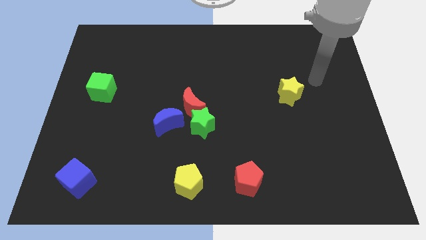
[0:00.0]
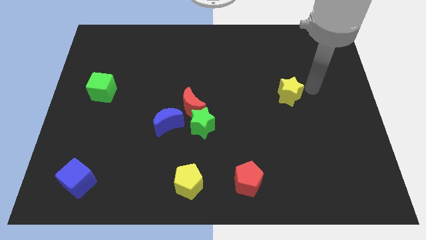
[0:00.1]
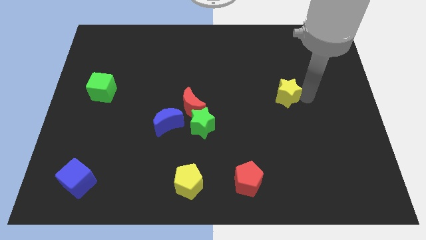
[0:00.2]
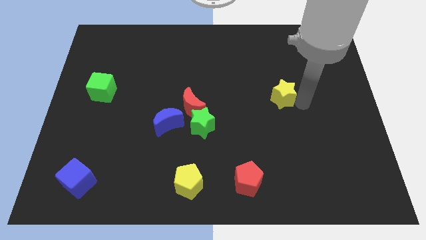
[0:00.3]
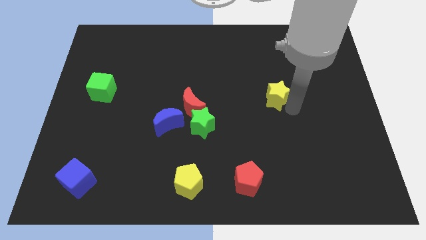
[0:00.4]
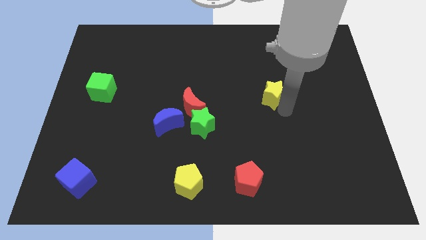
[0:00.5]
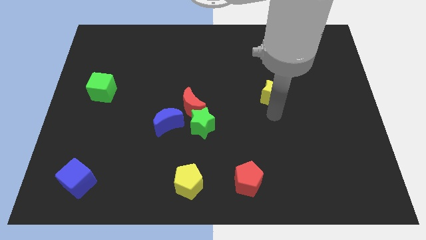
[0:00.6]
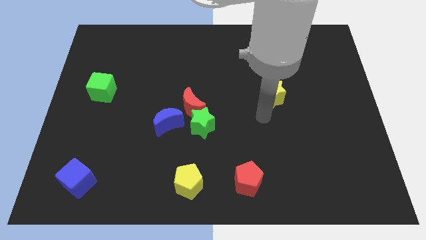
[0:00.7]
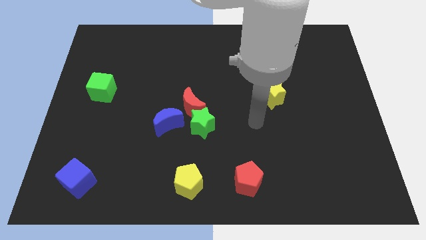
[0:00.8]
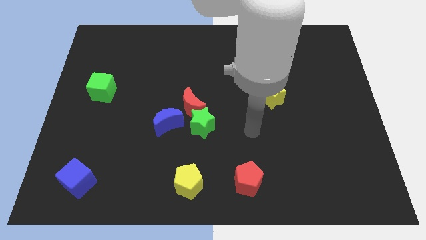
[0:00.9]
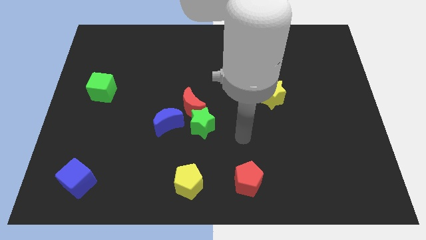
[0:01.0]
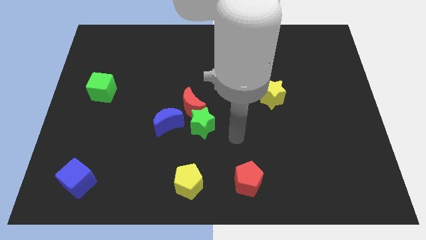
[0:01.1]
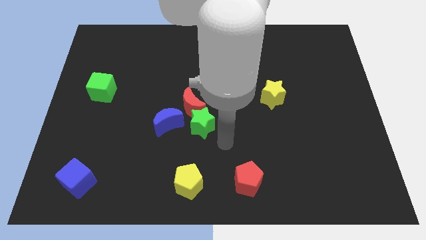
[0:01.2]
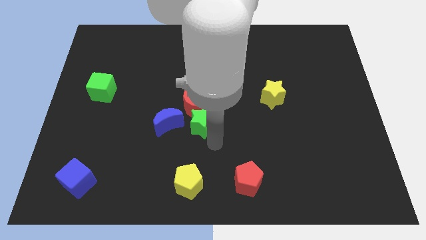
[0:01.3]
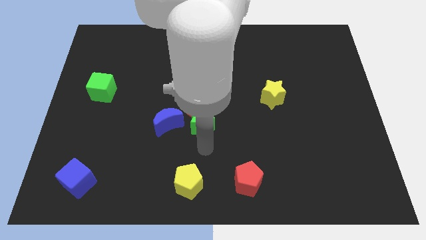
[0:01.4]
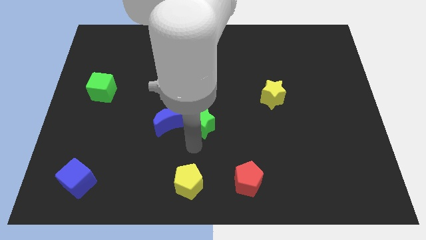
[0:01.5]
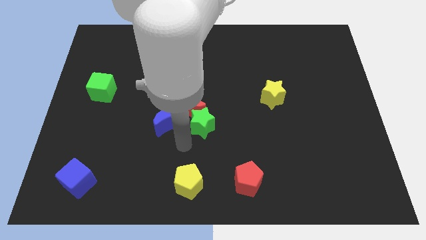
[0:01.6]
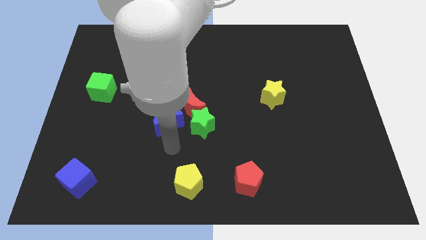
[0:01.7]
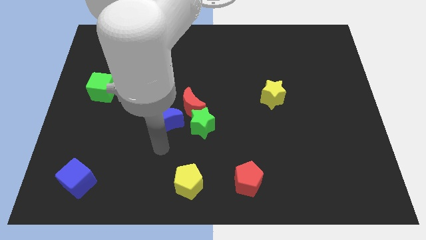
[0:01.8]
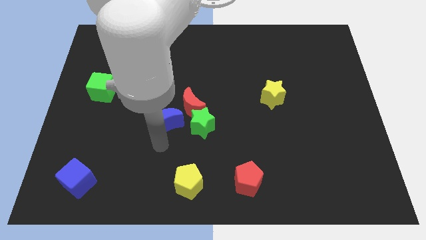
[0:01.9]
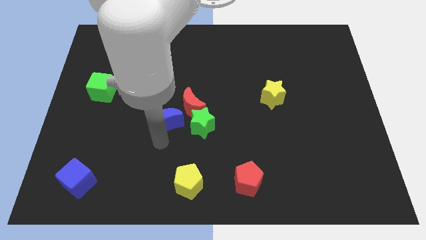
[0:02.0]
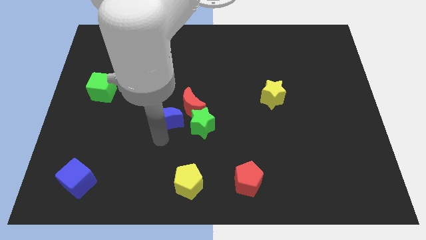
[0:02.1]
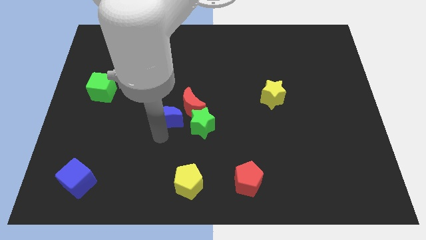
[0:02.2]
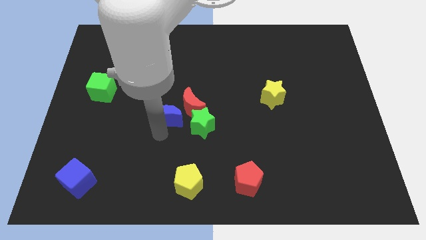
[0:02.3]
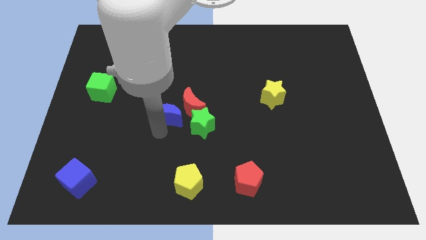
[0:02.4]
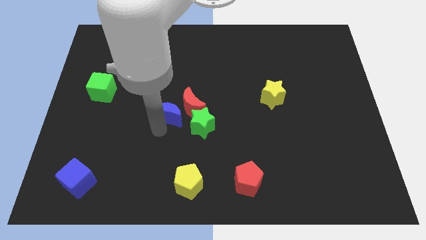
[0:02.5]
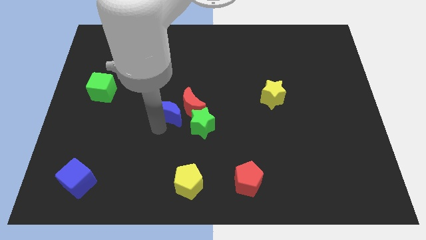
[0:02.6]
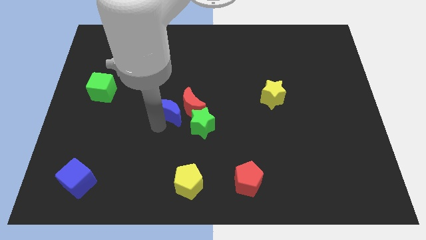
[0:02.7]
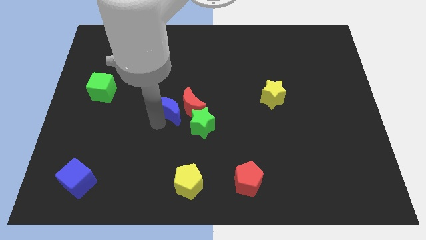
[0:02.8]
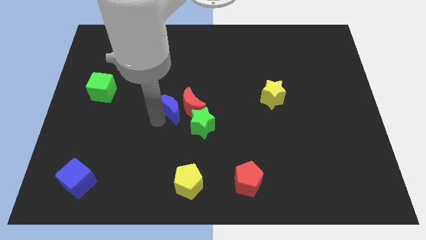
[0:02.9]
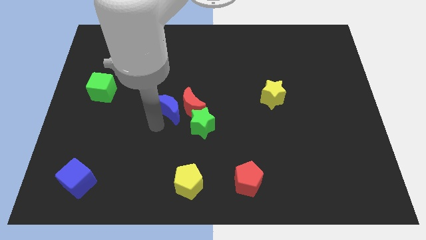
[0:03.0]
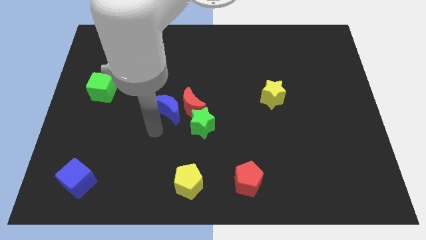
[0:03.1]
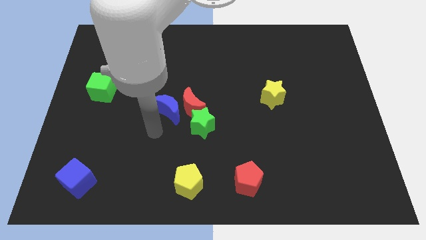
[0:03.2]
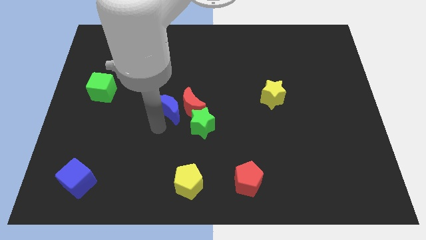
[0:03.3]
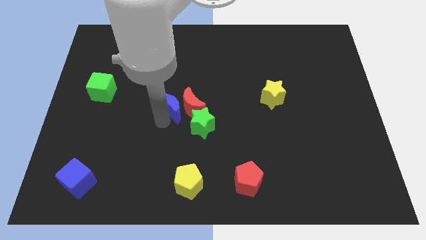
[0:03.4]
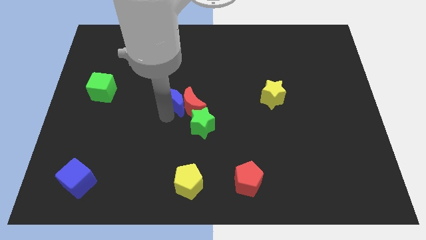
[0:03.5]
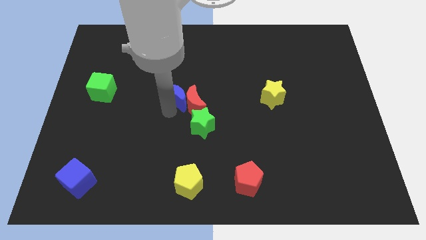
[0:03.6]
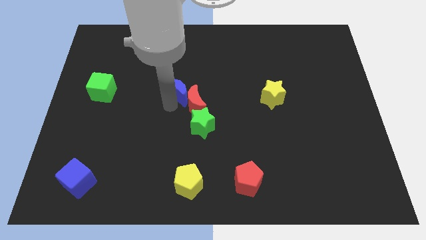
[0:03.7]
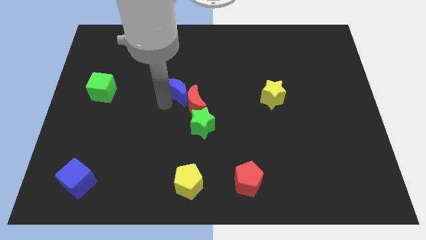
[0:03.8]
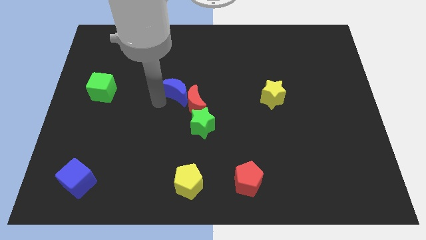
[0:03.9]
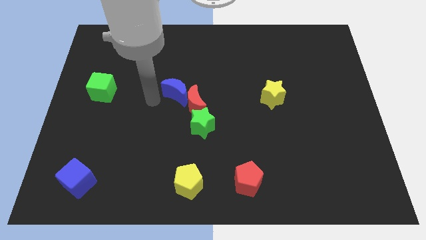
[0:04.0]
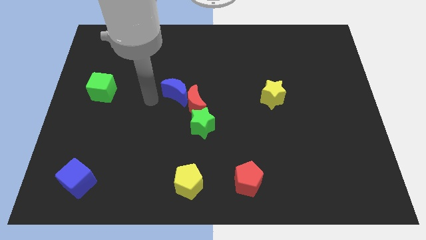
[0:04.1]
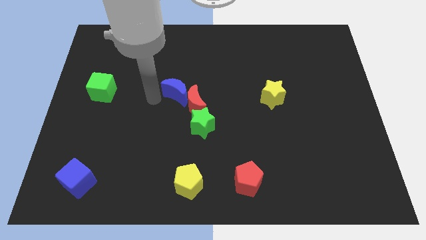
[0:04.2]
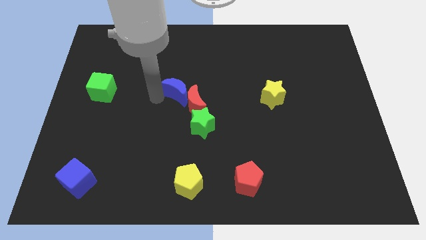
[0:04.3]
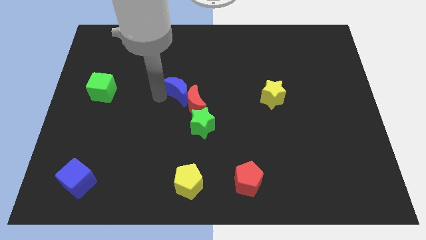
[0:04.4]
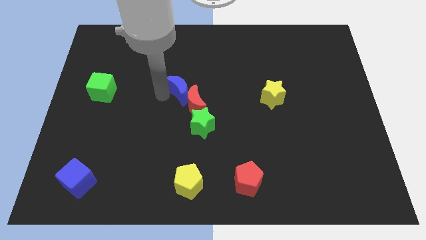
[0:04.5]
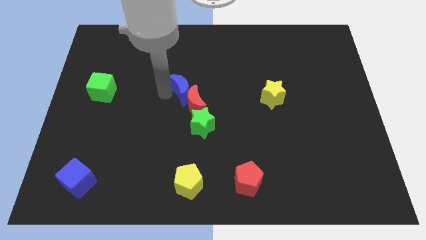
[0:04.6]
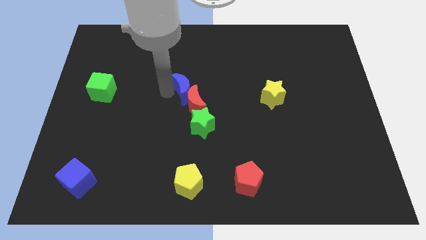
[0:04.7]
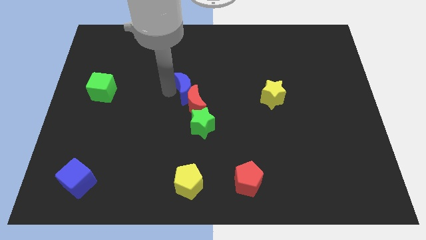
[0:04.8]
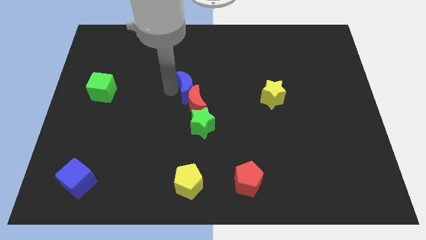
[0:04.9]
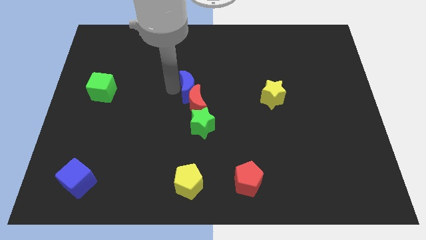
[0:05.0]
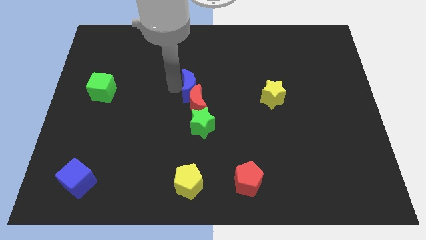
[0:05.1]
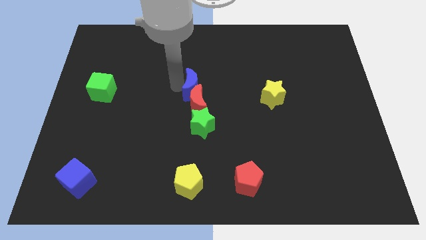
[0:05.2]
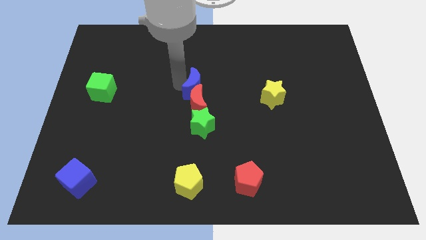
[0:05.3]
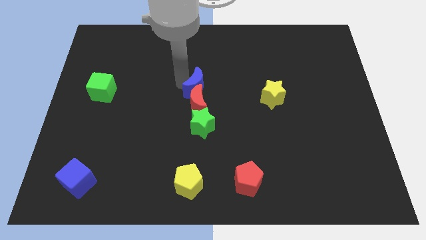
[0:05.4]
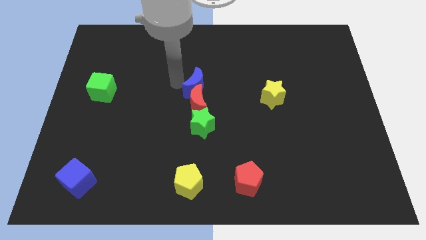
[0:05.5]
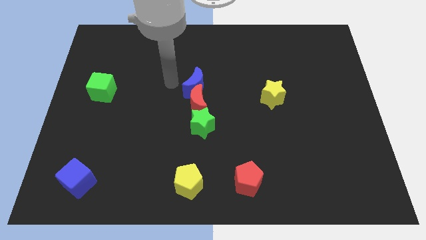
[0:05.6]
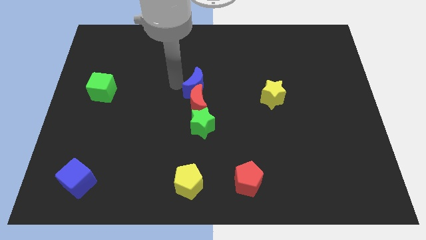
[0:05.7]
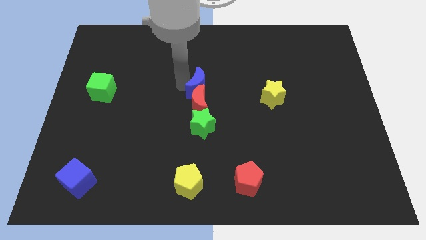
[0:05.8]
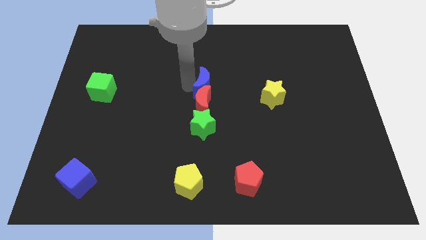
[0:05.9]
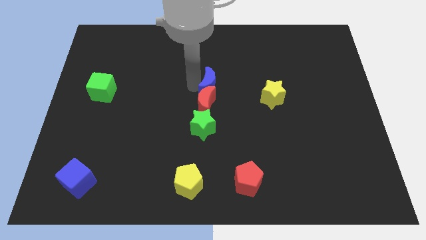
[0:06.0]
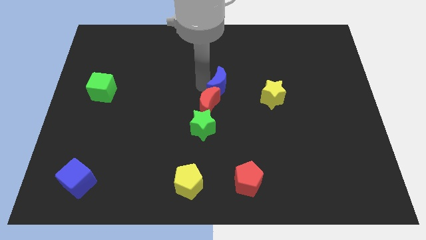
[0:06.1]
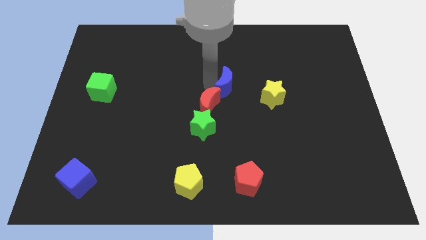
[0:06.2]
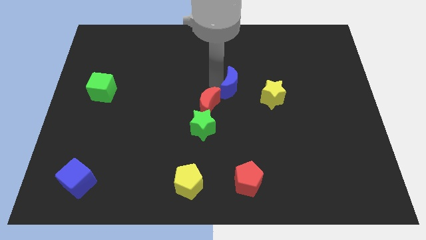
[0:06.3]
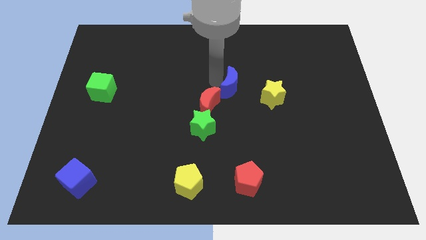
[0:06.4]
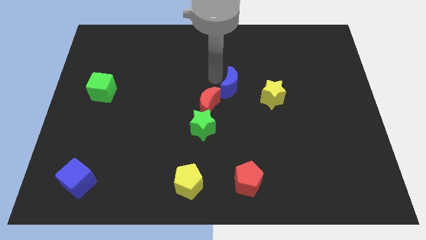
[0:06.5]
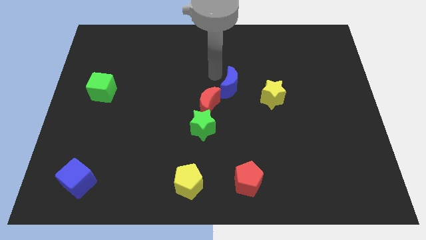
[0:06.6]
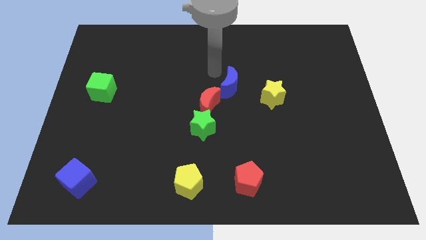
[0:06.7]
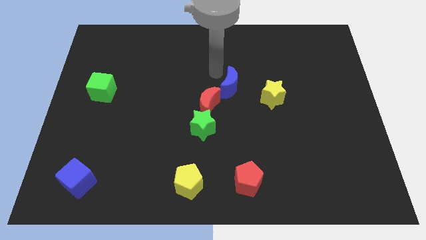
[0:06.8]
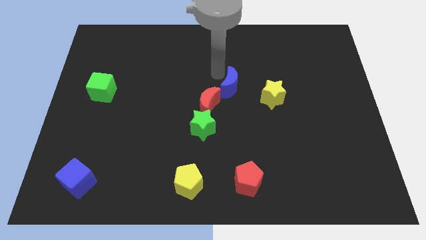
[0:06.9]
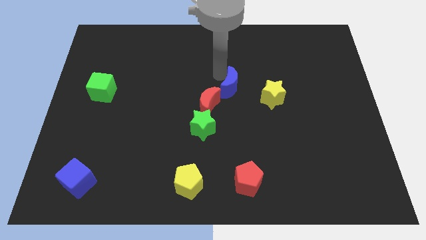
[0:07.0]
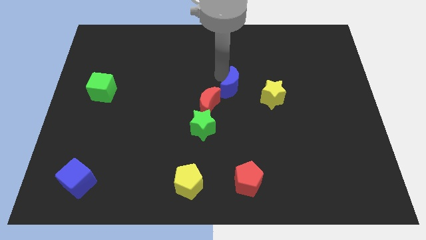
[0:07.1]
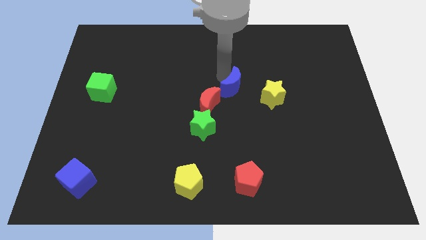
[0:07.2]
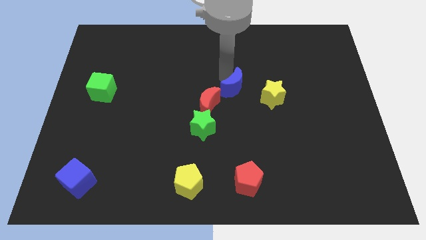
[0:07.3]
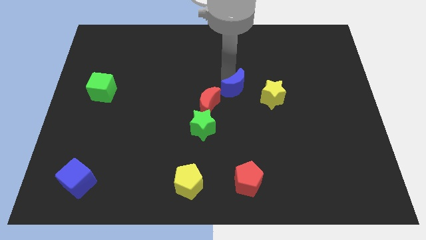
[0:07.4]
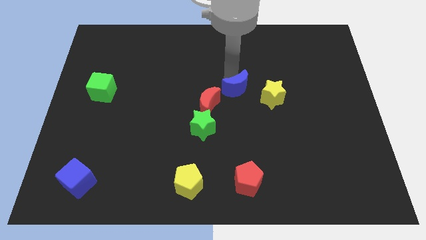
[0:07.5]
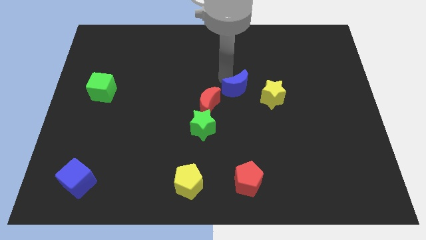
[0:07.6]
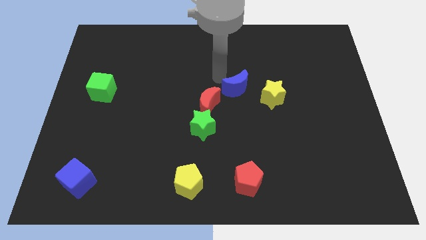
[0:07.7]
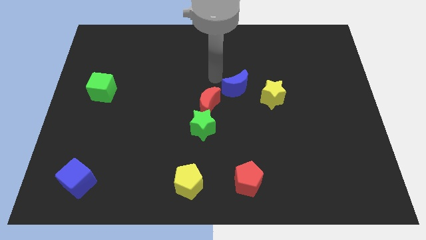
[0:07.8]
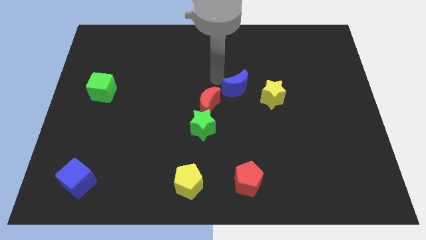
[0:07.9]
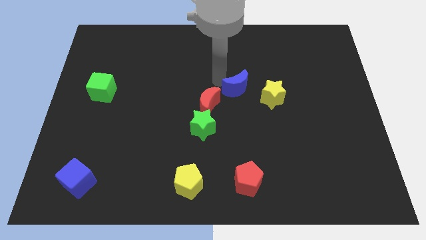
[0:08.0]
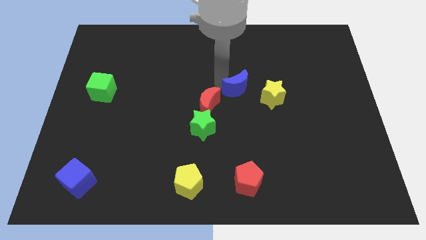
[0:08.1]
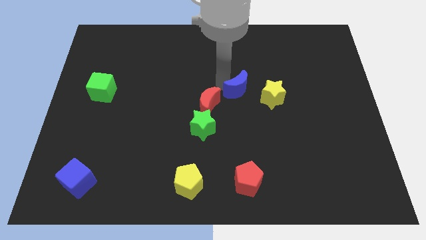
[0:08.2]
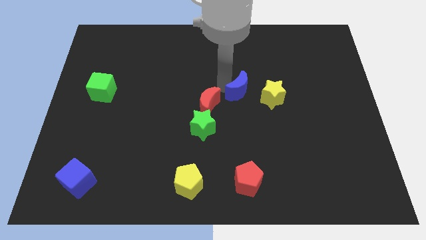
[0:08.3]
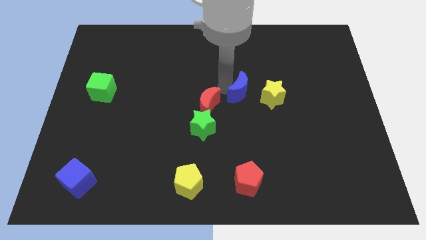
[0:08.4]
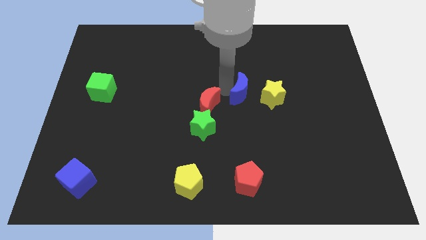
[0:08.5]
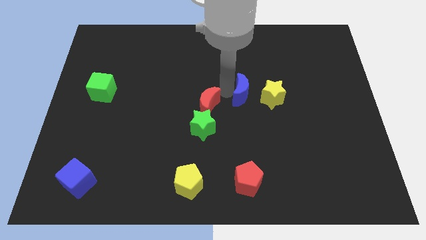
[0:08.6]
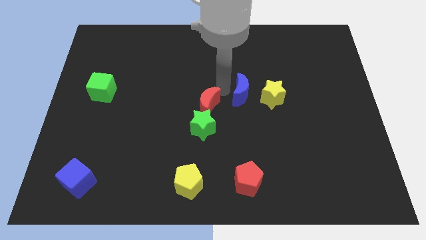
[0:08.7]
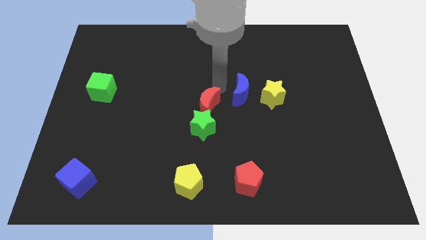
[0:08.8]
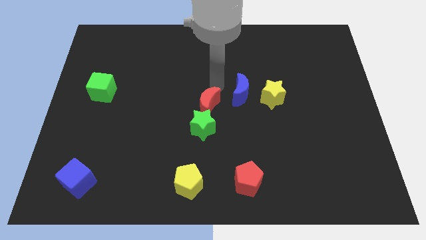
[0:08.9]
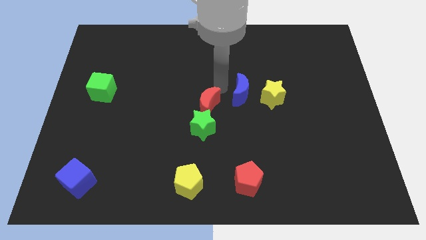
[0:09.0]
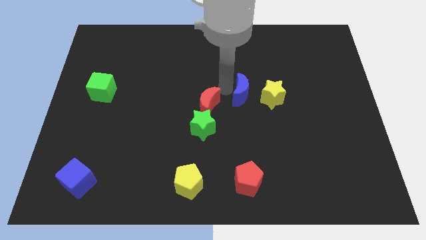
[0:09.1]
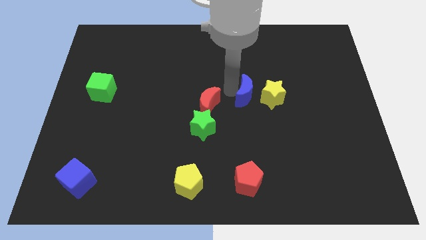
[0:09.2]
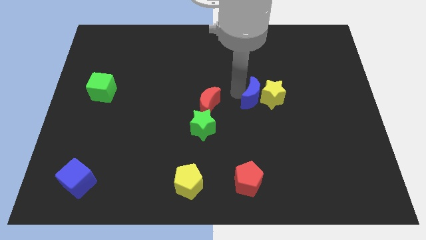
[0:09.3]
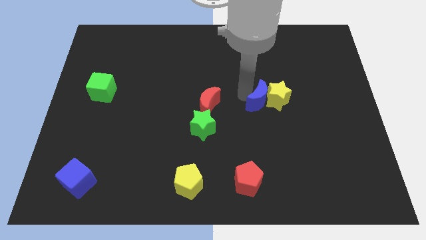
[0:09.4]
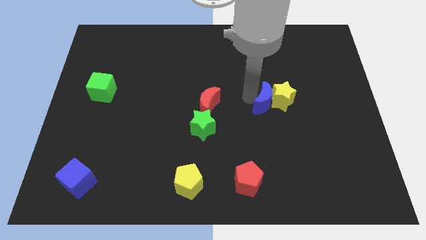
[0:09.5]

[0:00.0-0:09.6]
push the blue moon to the right
